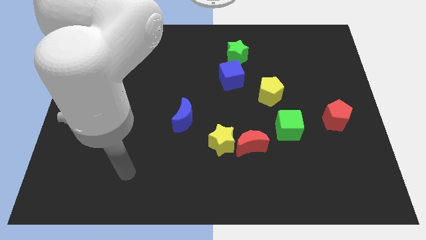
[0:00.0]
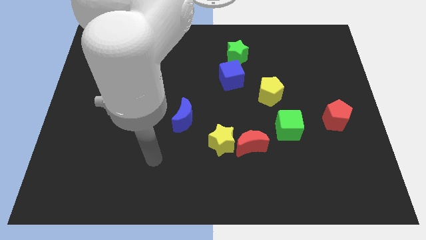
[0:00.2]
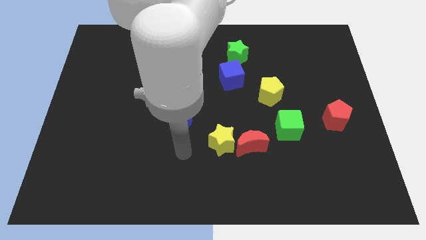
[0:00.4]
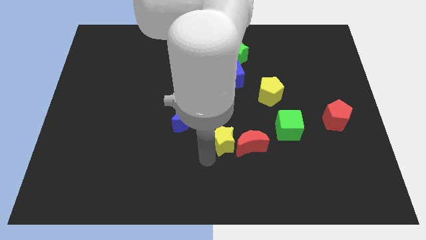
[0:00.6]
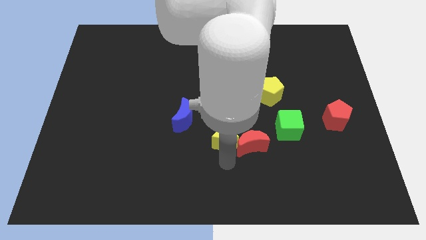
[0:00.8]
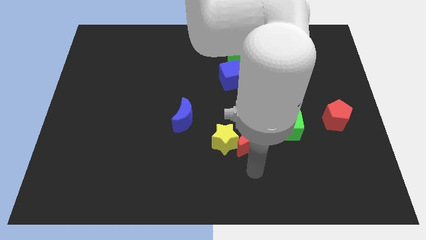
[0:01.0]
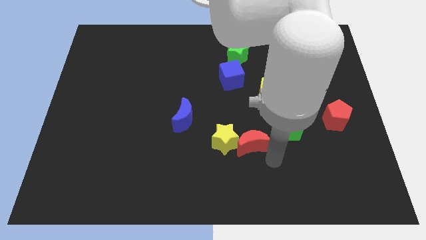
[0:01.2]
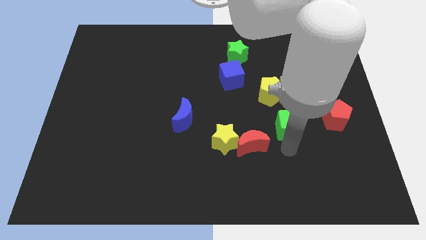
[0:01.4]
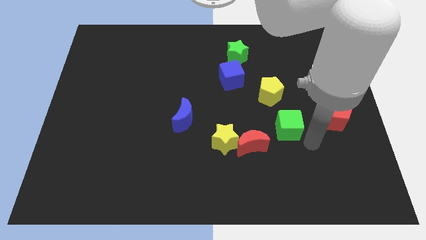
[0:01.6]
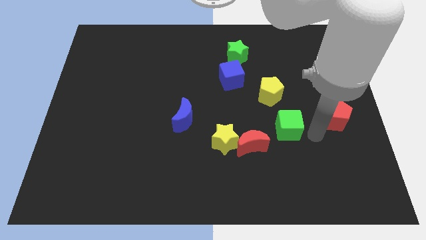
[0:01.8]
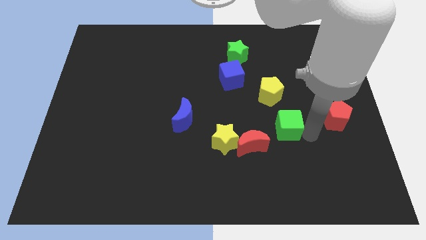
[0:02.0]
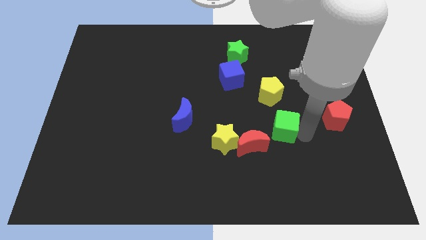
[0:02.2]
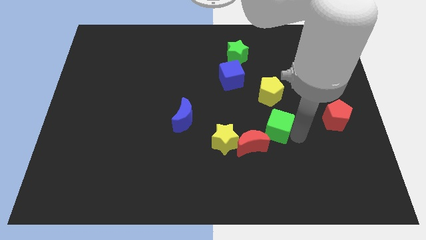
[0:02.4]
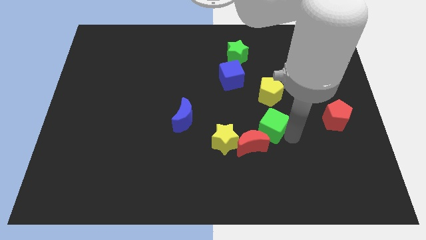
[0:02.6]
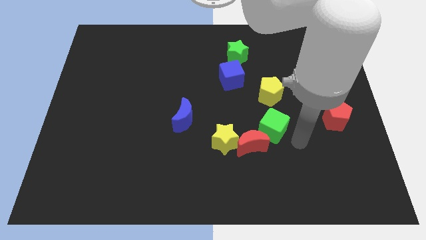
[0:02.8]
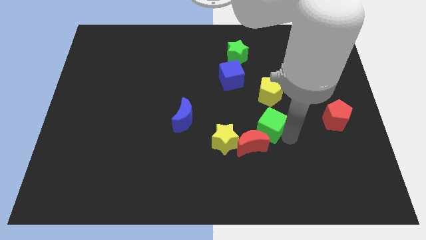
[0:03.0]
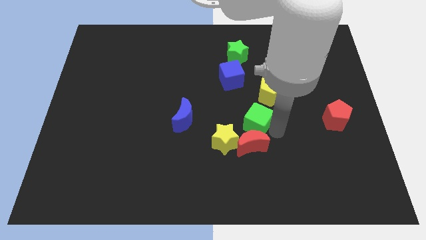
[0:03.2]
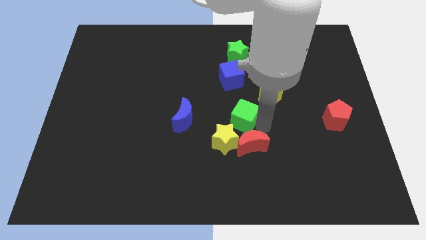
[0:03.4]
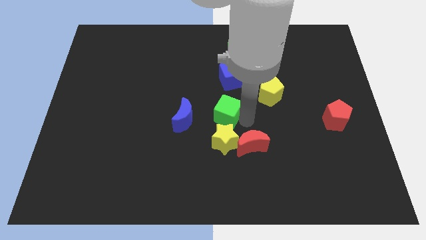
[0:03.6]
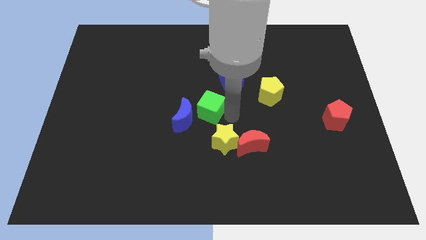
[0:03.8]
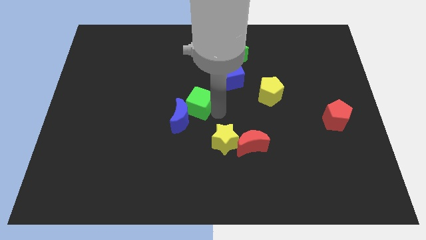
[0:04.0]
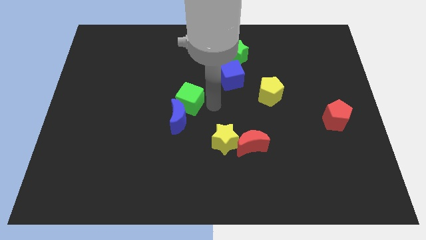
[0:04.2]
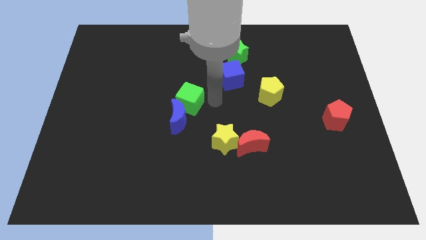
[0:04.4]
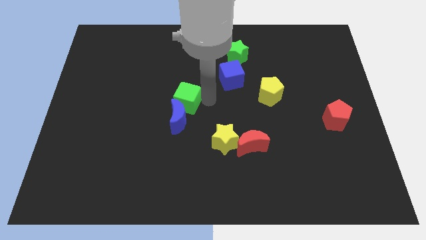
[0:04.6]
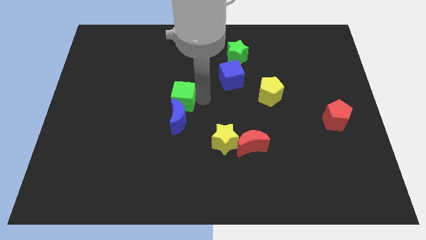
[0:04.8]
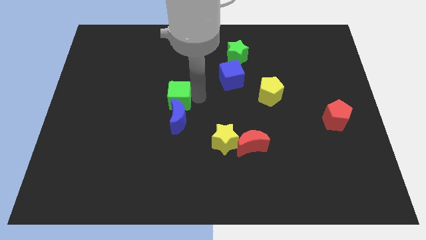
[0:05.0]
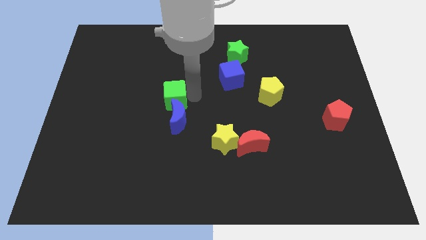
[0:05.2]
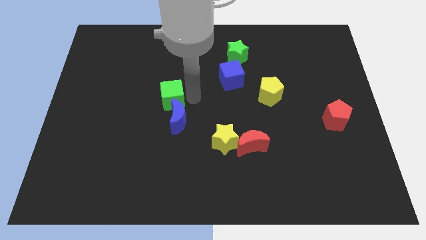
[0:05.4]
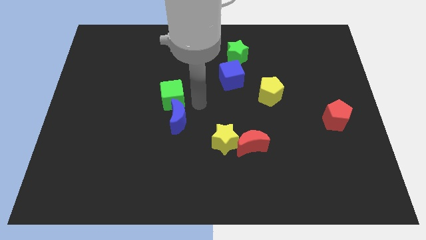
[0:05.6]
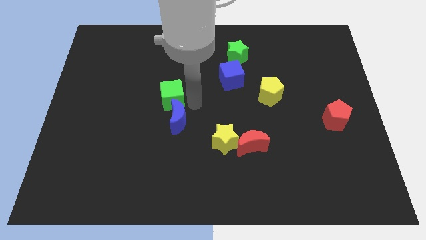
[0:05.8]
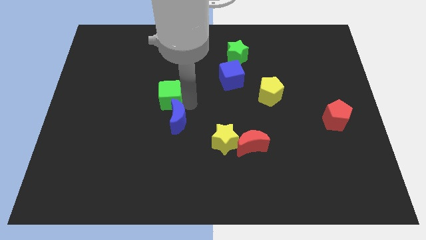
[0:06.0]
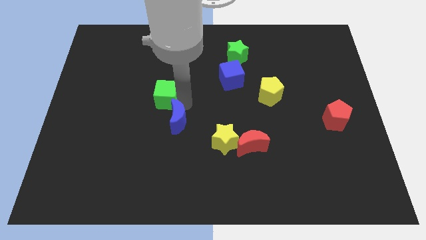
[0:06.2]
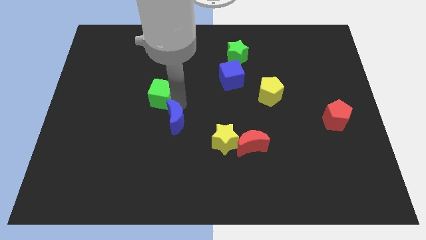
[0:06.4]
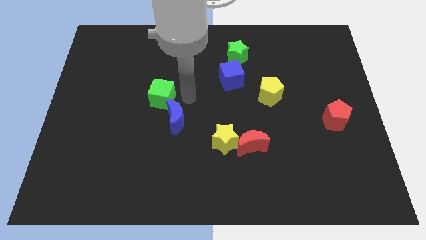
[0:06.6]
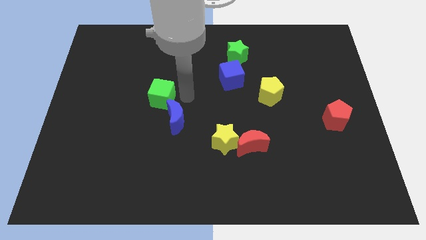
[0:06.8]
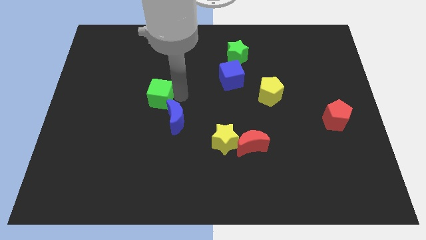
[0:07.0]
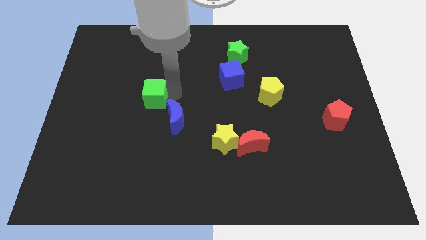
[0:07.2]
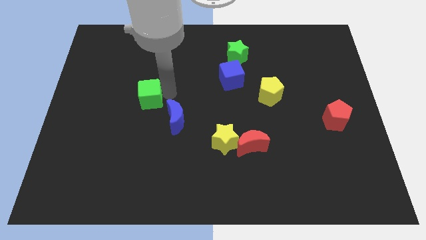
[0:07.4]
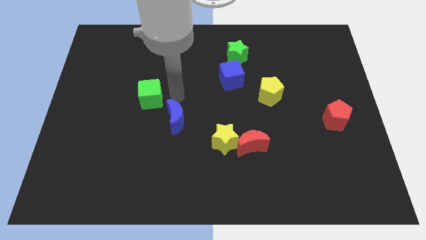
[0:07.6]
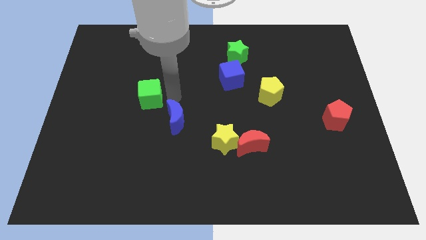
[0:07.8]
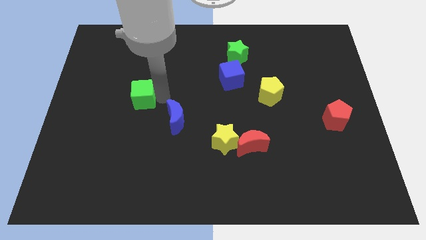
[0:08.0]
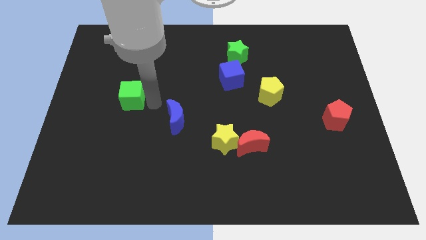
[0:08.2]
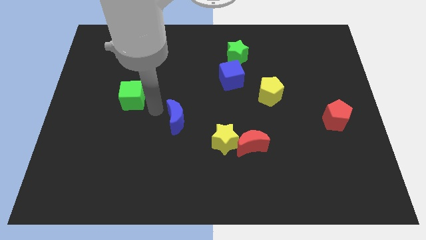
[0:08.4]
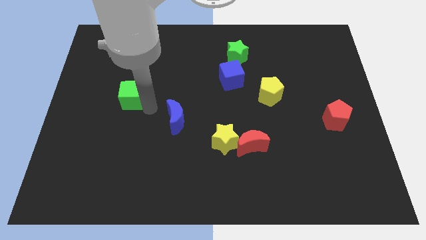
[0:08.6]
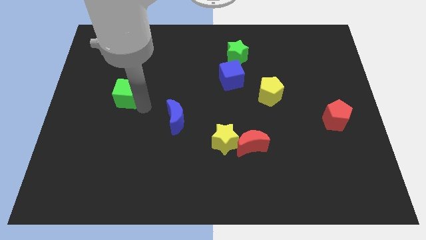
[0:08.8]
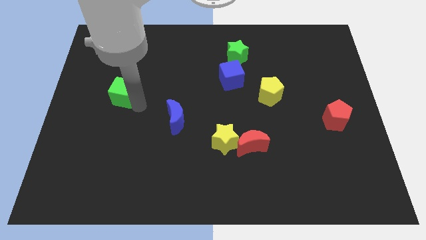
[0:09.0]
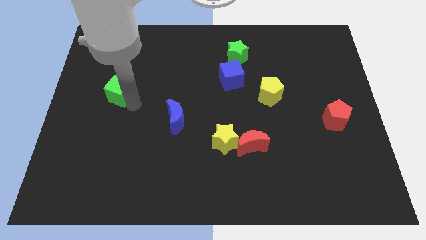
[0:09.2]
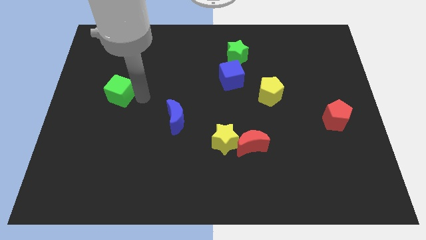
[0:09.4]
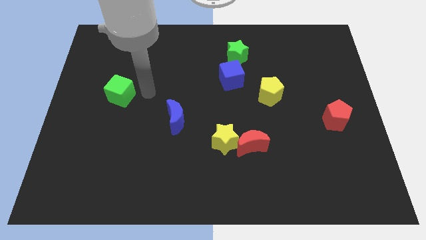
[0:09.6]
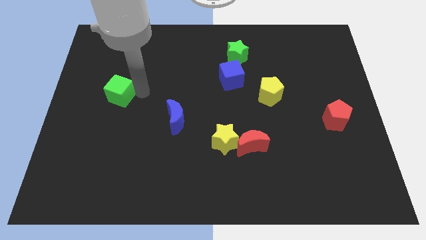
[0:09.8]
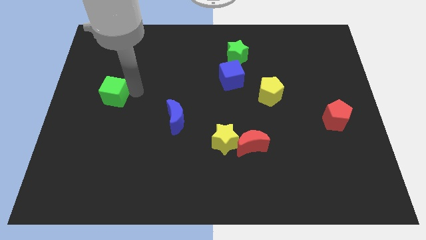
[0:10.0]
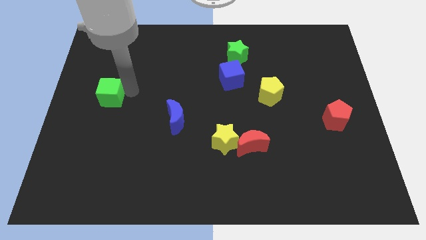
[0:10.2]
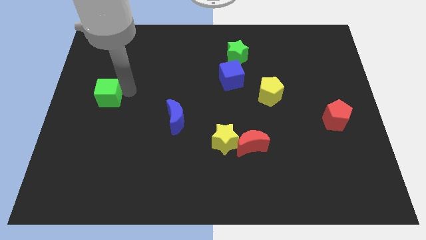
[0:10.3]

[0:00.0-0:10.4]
put the green cube to the left side of the board

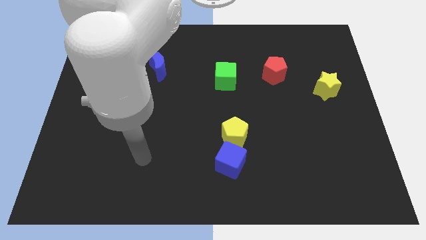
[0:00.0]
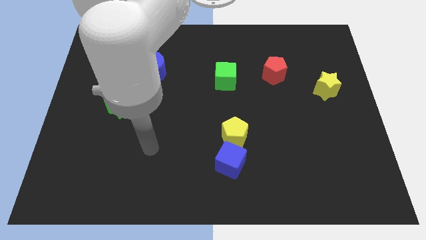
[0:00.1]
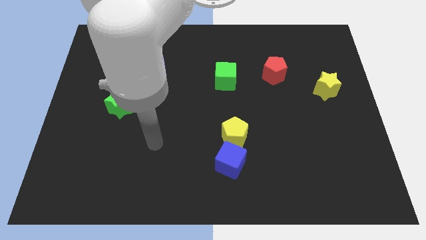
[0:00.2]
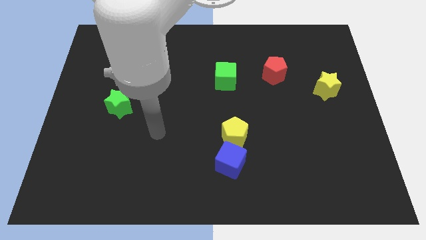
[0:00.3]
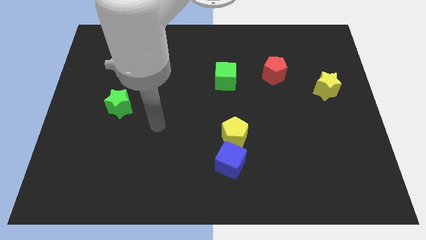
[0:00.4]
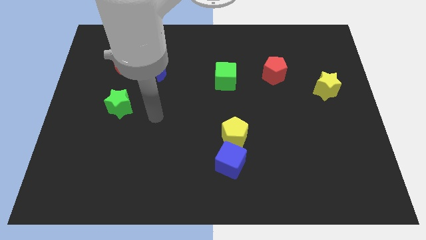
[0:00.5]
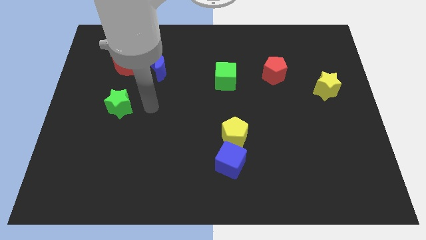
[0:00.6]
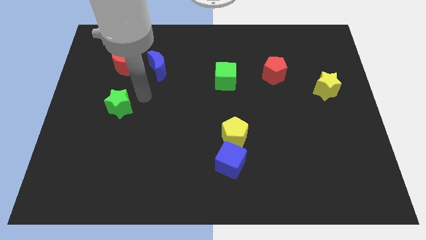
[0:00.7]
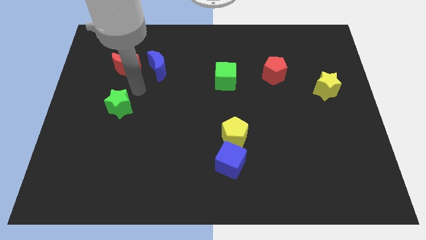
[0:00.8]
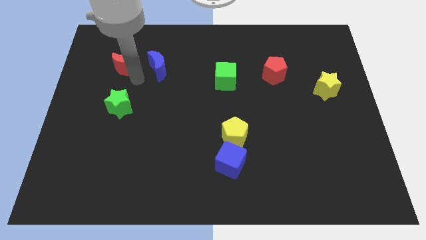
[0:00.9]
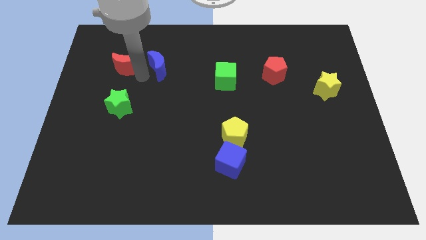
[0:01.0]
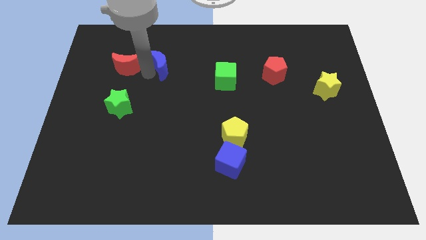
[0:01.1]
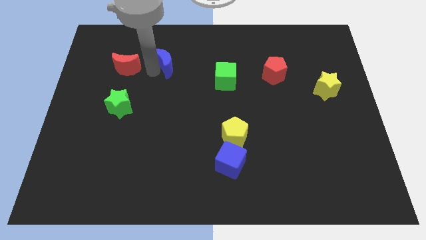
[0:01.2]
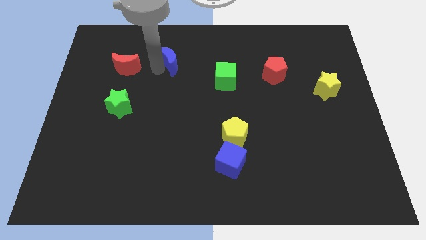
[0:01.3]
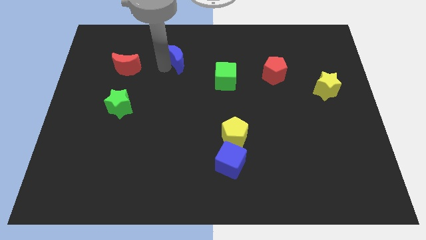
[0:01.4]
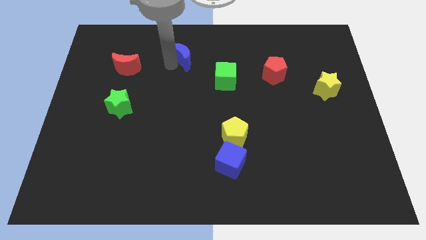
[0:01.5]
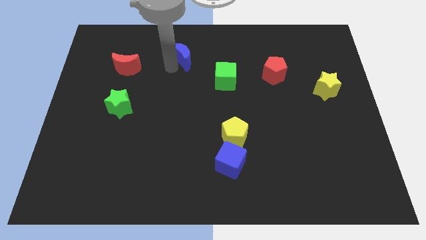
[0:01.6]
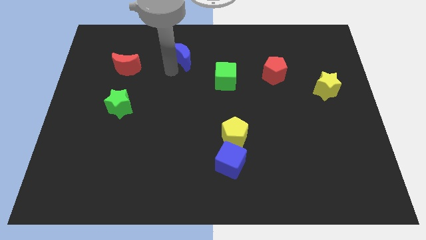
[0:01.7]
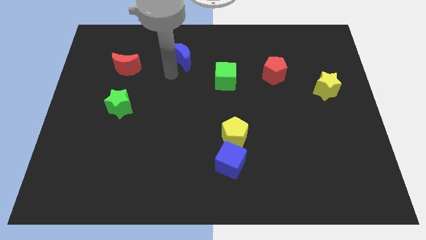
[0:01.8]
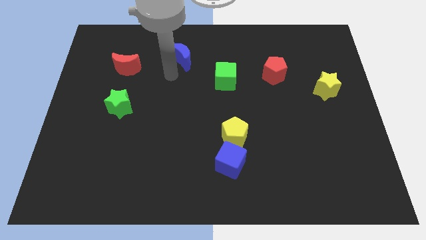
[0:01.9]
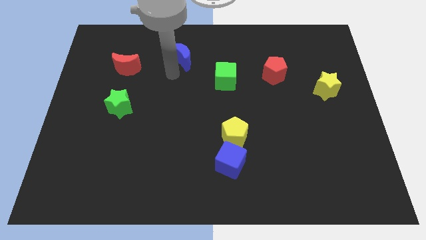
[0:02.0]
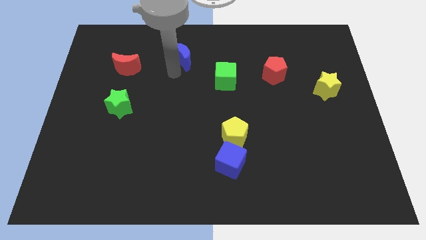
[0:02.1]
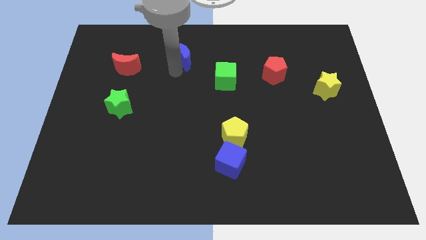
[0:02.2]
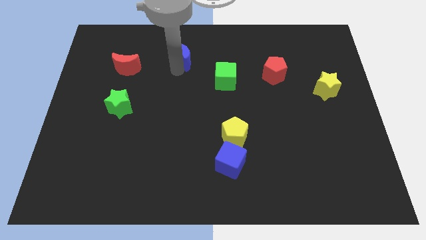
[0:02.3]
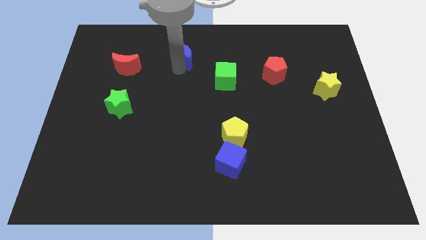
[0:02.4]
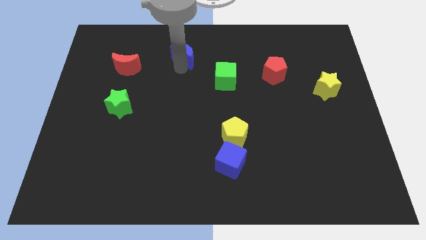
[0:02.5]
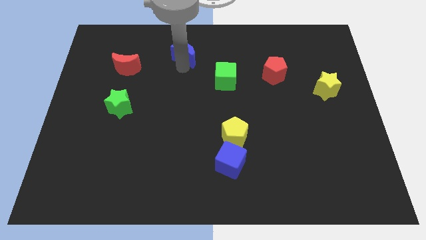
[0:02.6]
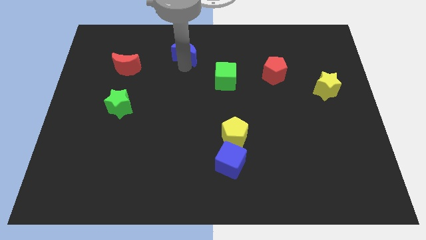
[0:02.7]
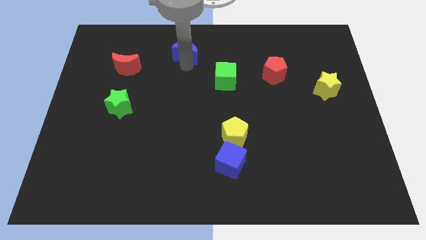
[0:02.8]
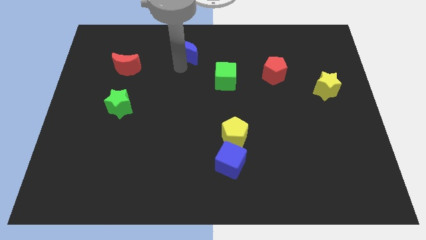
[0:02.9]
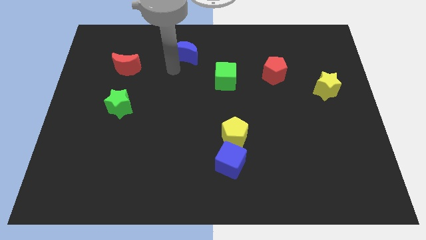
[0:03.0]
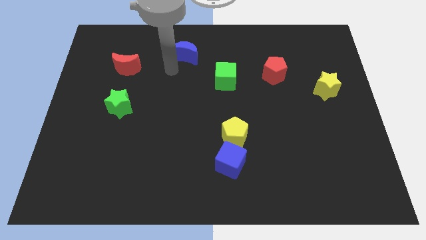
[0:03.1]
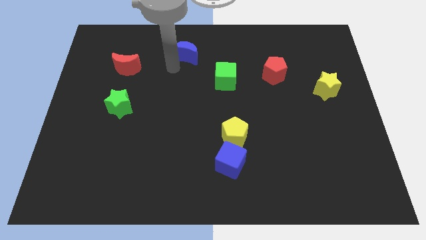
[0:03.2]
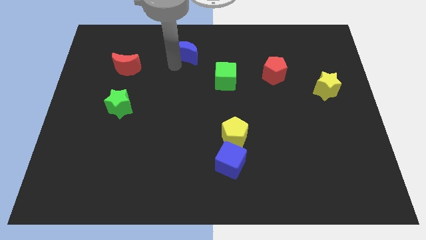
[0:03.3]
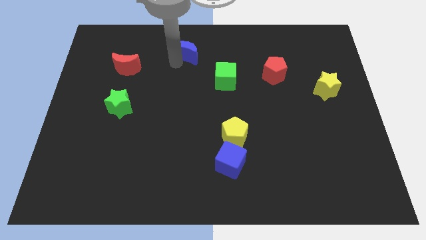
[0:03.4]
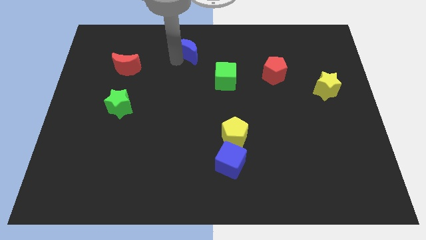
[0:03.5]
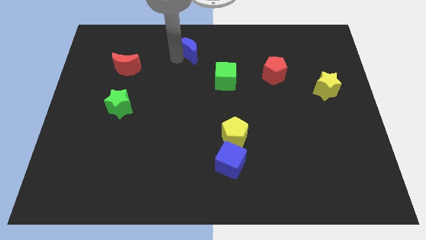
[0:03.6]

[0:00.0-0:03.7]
slide the blue moon to the towards your base
